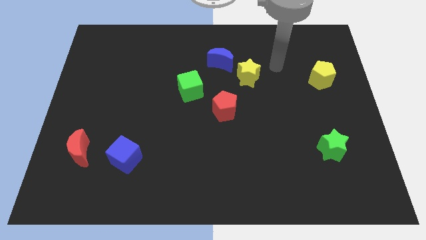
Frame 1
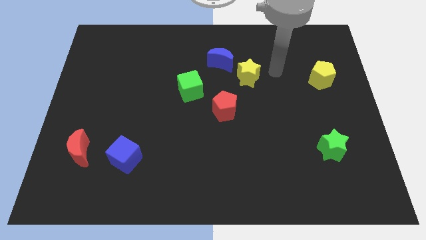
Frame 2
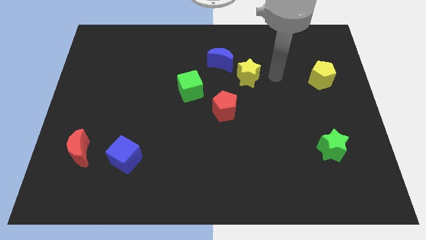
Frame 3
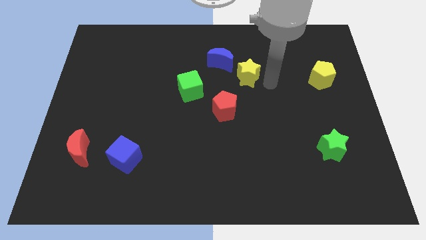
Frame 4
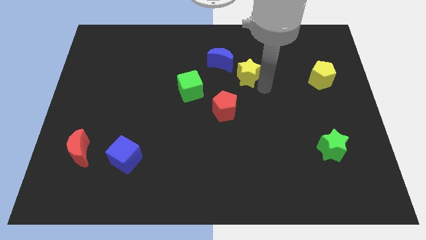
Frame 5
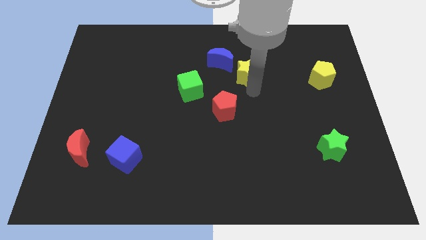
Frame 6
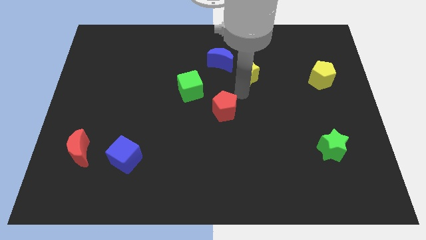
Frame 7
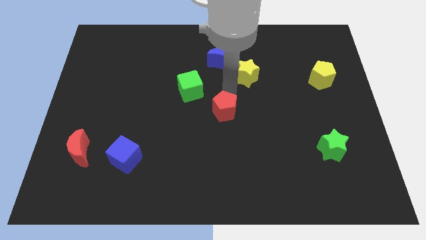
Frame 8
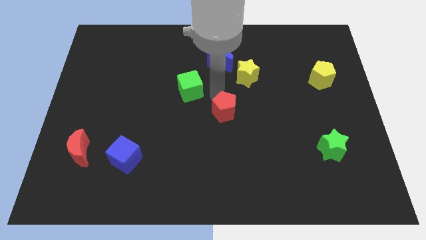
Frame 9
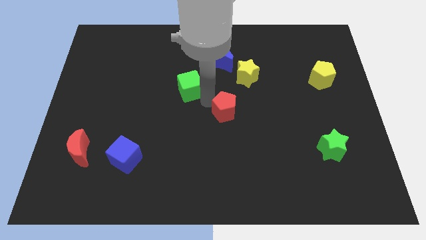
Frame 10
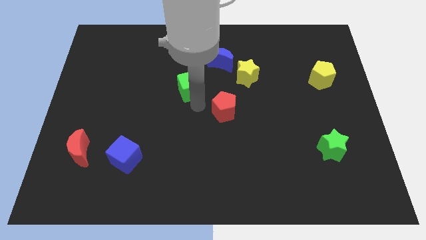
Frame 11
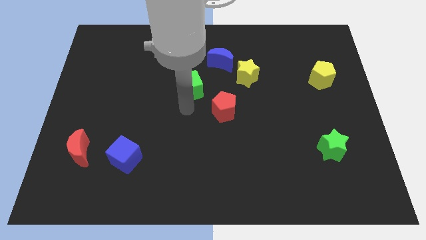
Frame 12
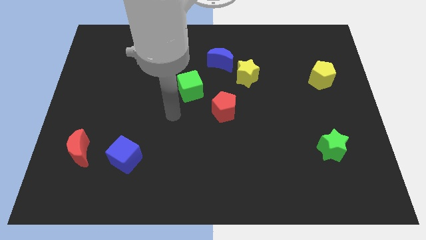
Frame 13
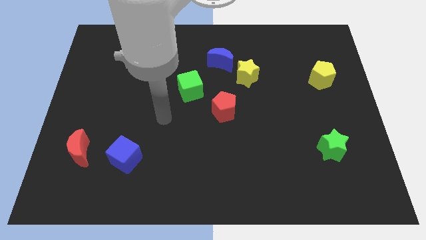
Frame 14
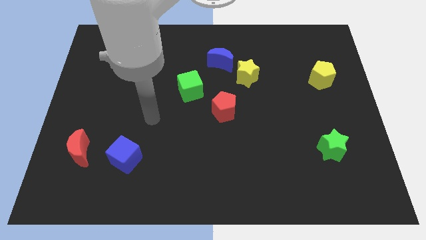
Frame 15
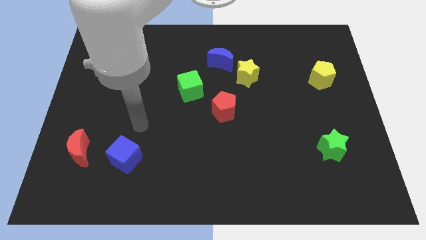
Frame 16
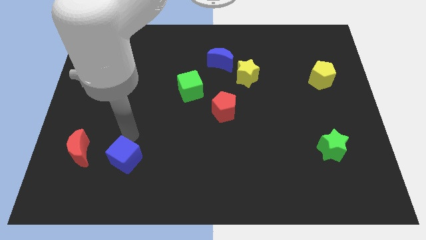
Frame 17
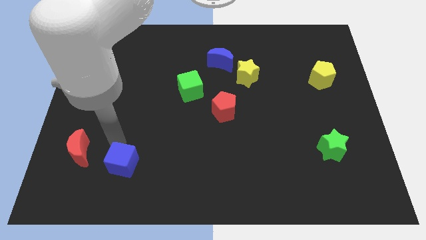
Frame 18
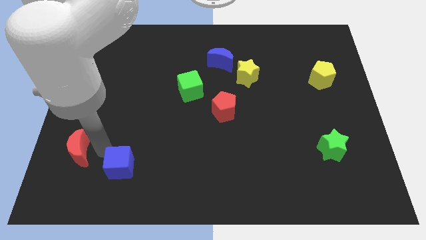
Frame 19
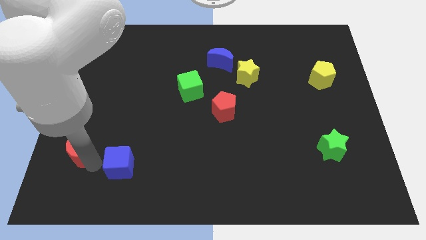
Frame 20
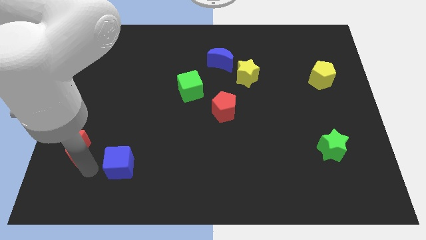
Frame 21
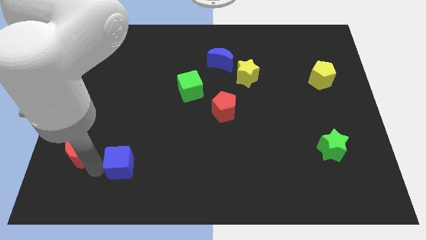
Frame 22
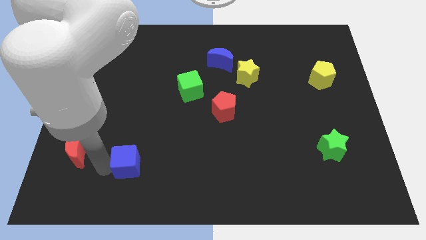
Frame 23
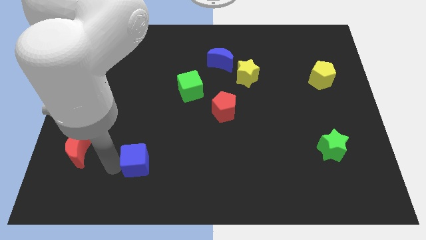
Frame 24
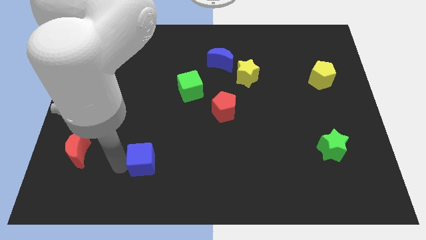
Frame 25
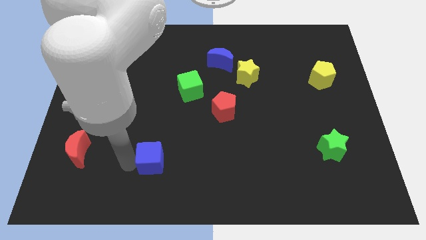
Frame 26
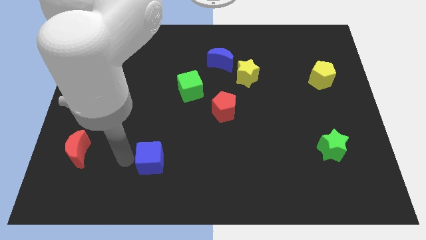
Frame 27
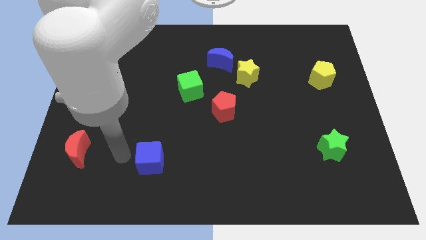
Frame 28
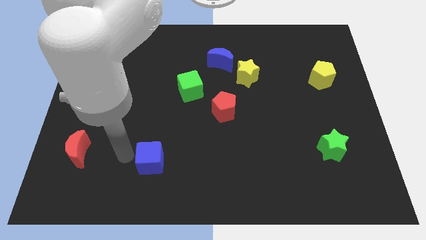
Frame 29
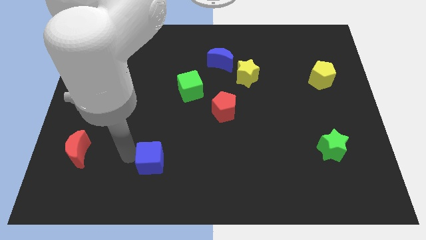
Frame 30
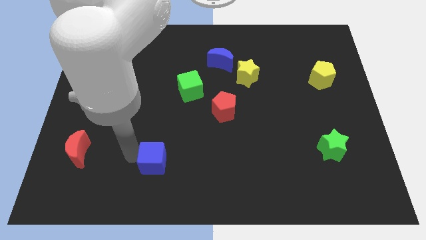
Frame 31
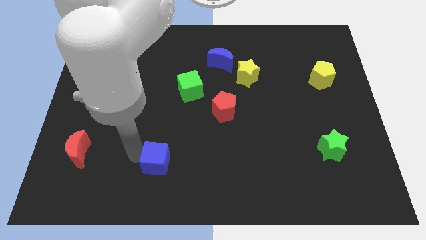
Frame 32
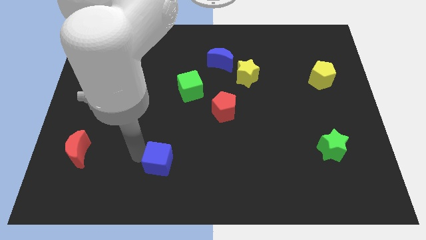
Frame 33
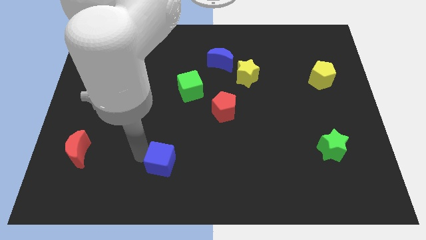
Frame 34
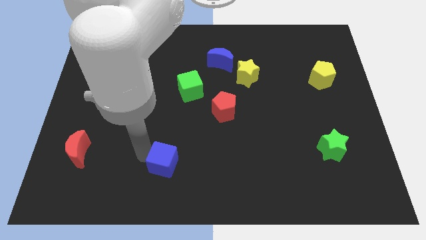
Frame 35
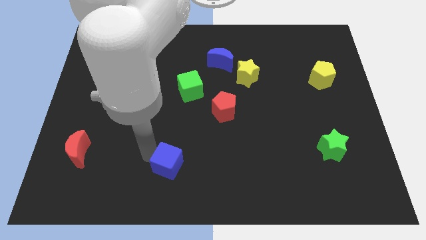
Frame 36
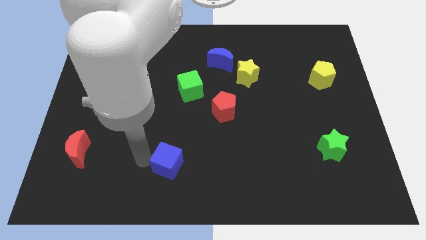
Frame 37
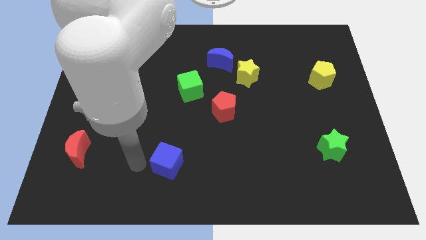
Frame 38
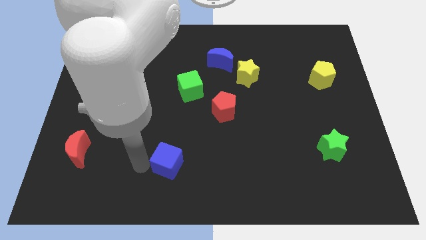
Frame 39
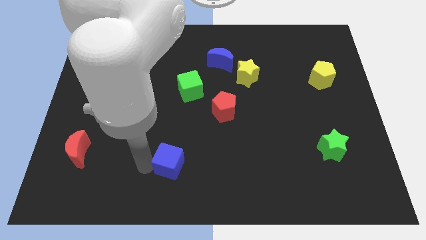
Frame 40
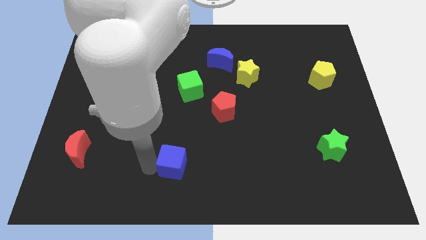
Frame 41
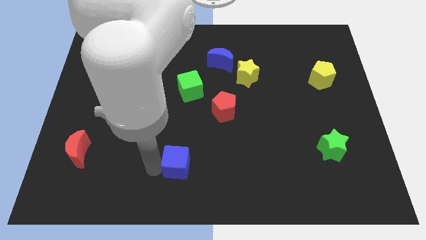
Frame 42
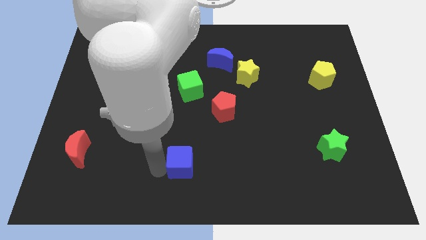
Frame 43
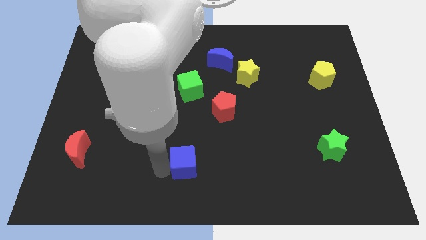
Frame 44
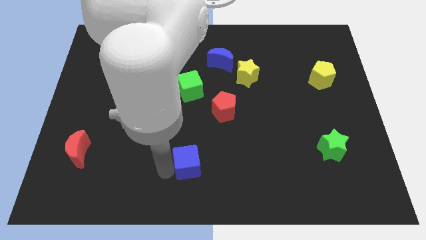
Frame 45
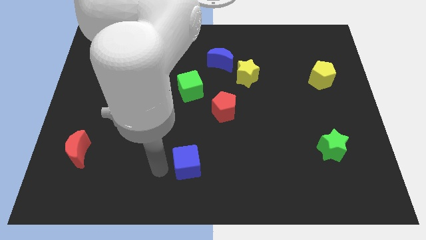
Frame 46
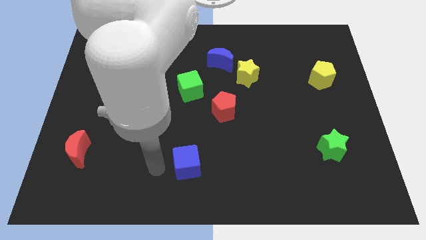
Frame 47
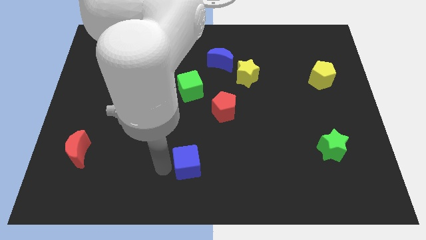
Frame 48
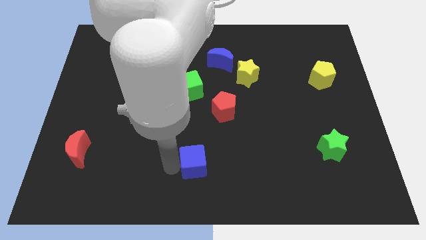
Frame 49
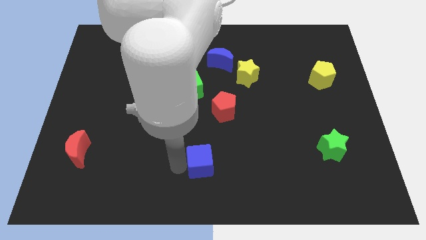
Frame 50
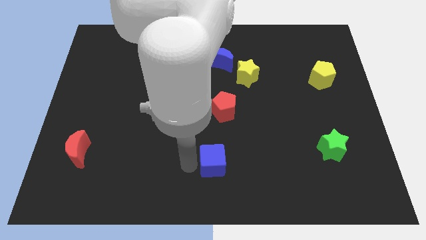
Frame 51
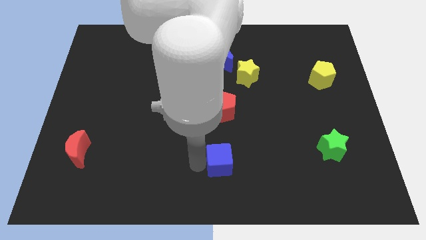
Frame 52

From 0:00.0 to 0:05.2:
slide the blue cube right

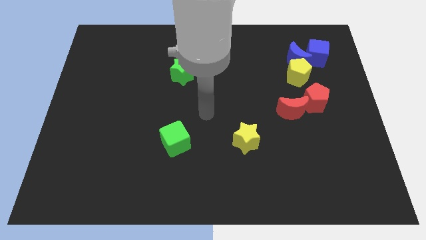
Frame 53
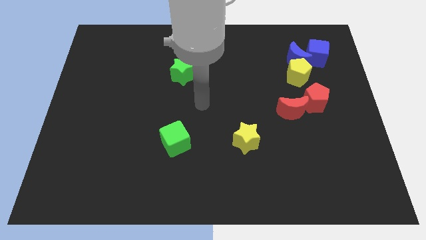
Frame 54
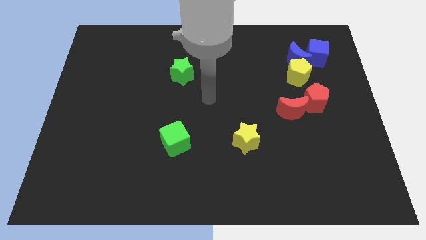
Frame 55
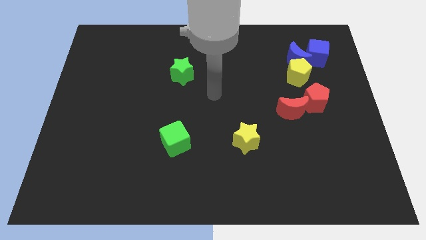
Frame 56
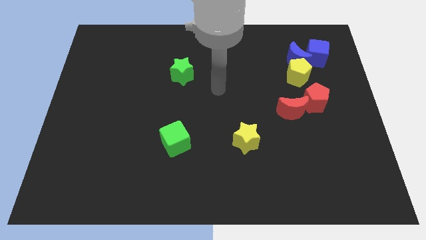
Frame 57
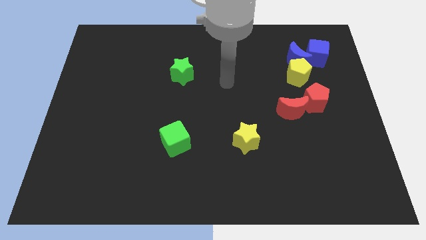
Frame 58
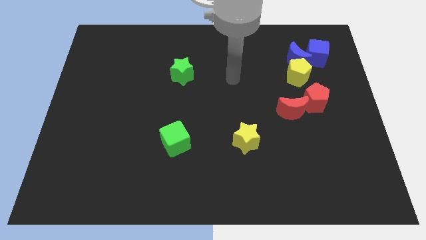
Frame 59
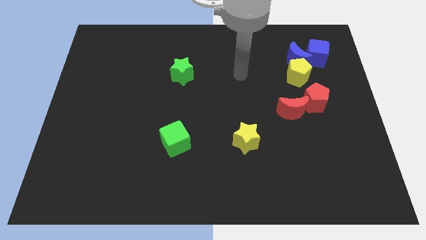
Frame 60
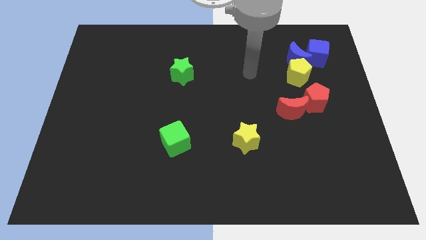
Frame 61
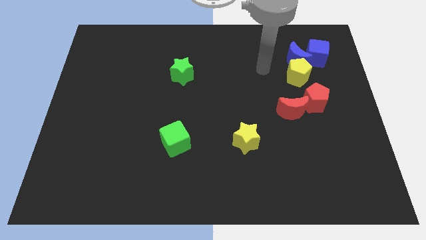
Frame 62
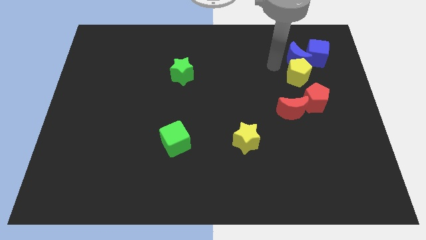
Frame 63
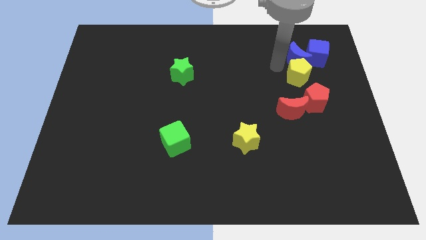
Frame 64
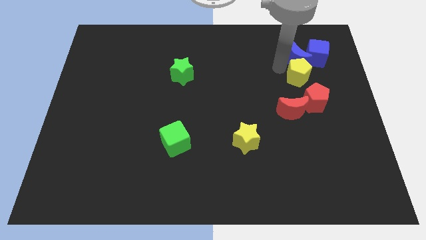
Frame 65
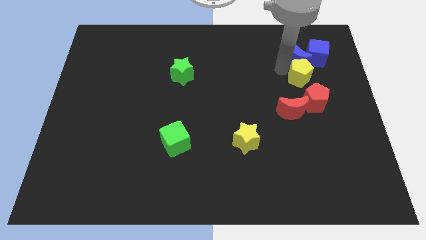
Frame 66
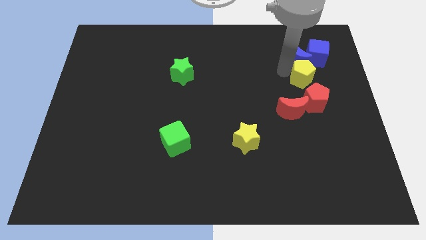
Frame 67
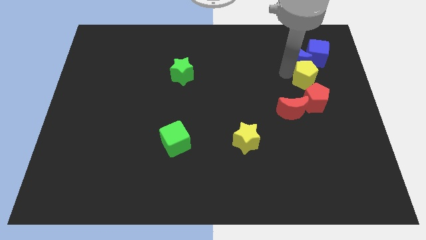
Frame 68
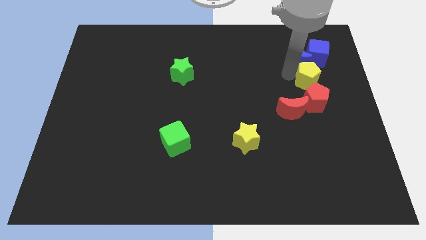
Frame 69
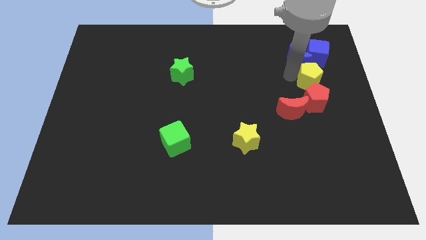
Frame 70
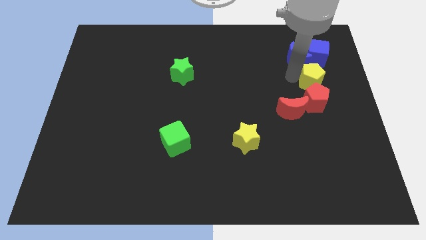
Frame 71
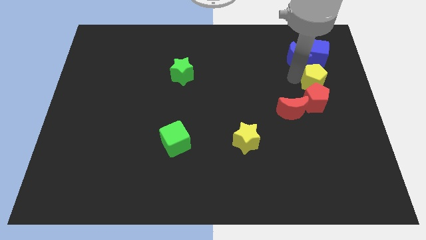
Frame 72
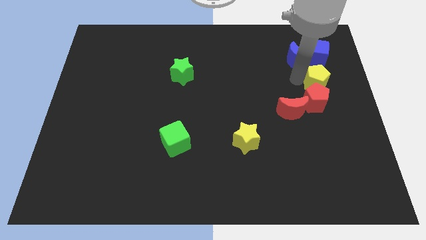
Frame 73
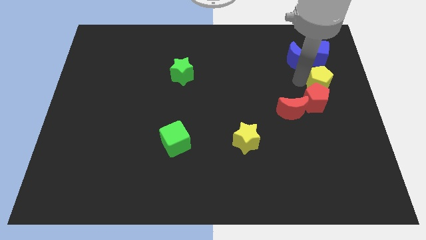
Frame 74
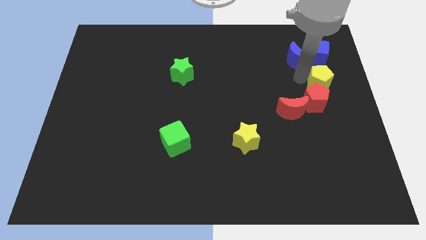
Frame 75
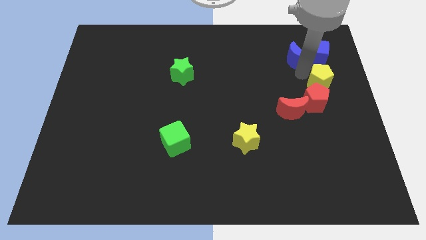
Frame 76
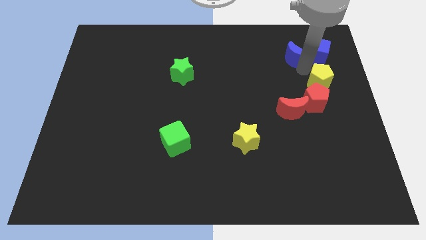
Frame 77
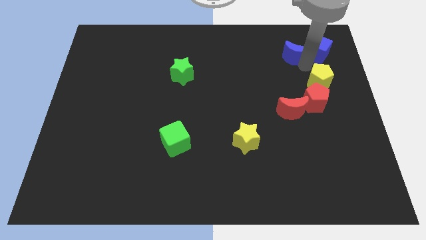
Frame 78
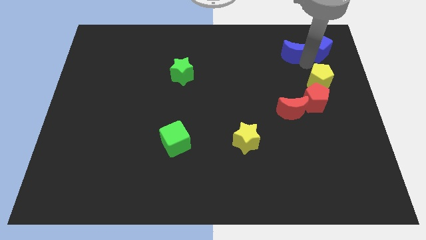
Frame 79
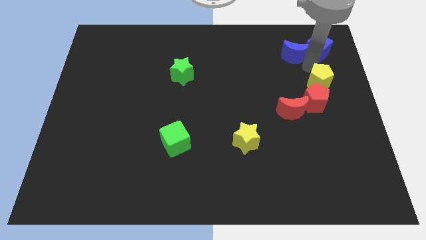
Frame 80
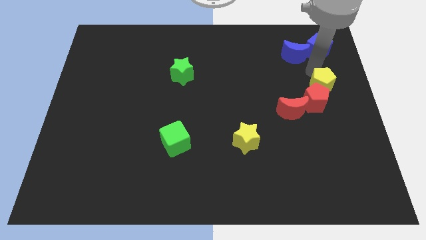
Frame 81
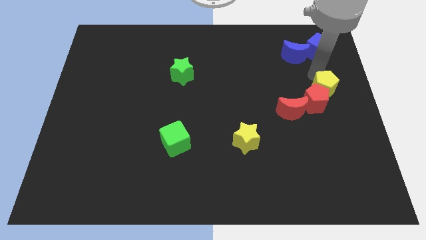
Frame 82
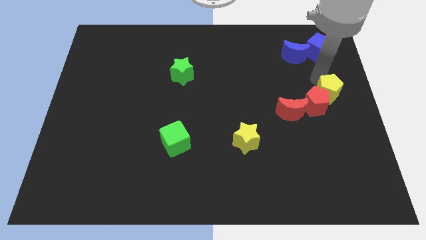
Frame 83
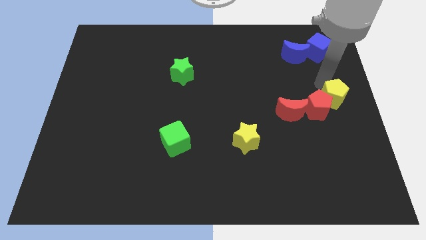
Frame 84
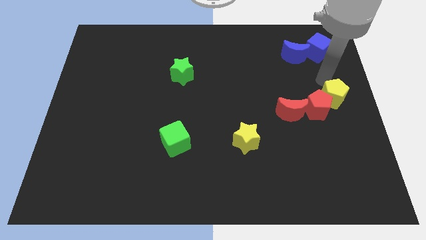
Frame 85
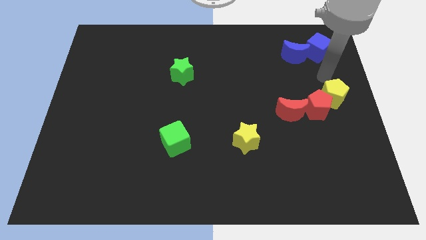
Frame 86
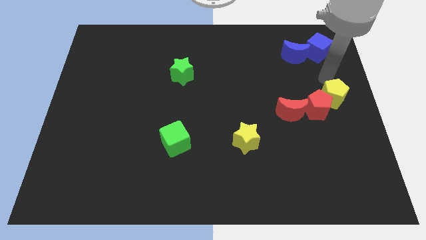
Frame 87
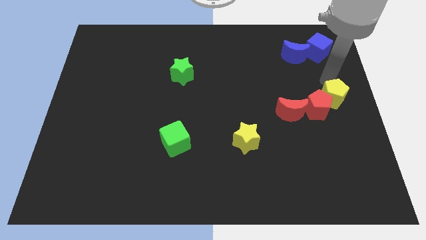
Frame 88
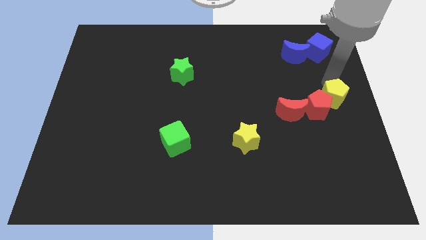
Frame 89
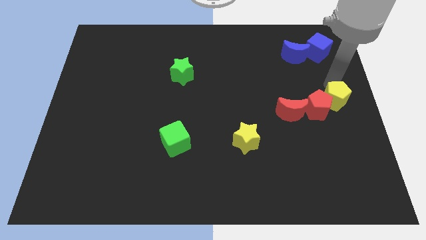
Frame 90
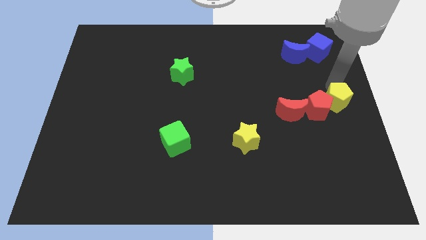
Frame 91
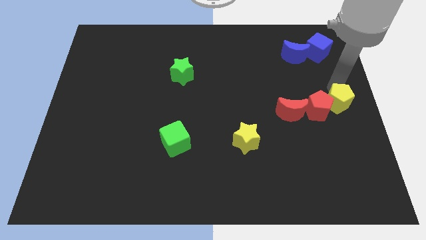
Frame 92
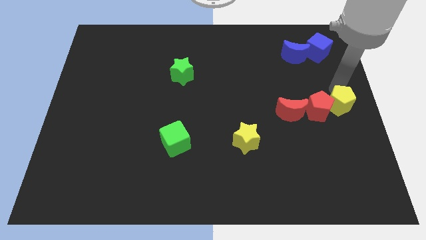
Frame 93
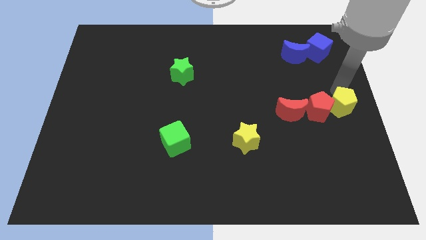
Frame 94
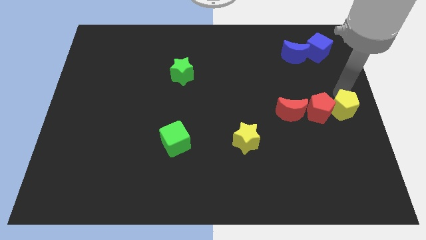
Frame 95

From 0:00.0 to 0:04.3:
slightly move the yellow pentagon down
